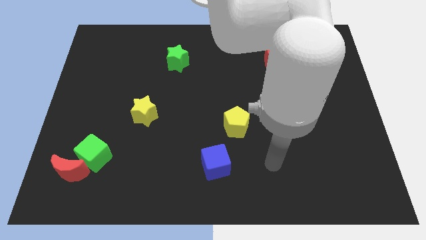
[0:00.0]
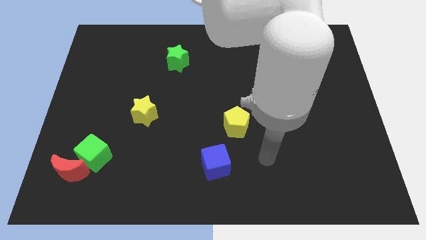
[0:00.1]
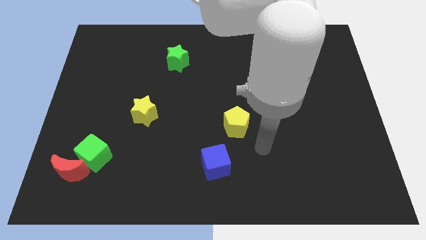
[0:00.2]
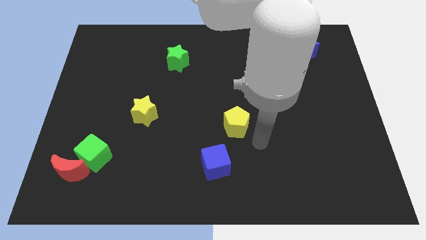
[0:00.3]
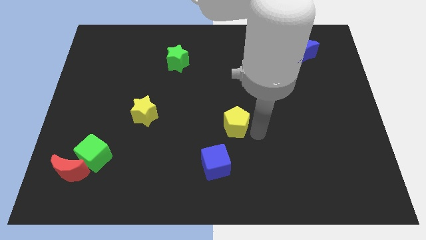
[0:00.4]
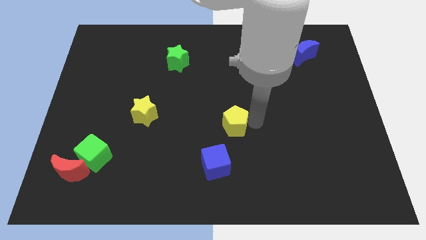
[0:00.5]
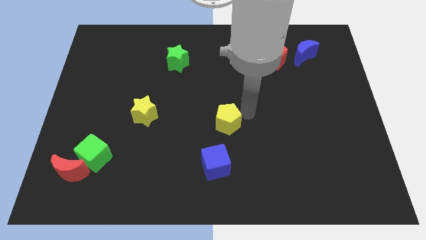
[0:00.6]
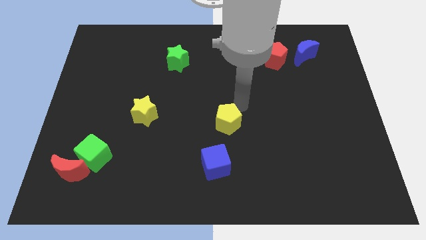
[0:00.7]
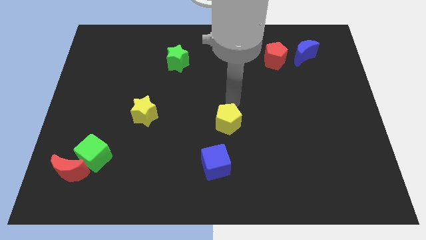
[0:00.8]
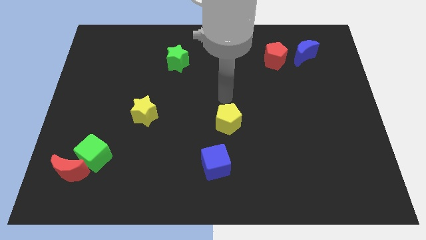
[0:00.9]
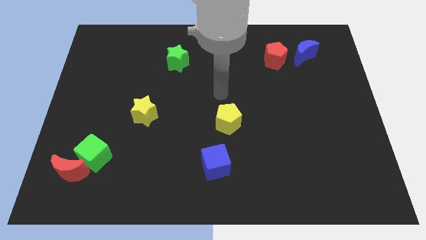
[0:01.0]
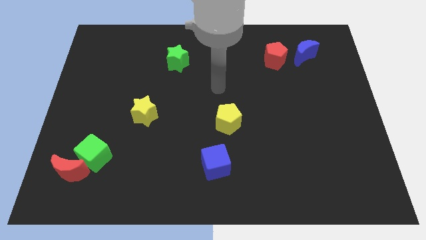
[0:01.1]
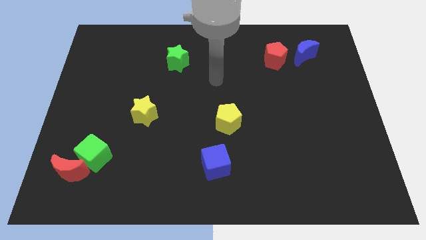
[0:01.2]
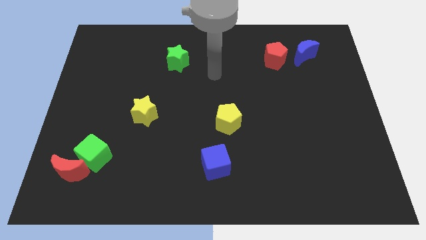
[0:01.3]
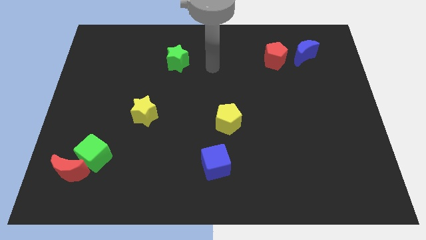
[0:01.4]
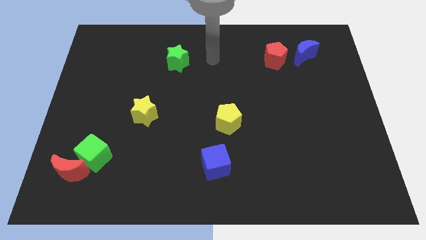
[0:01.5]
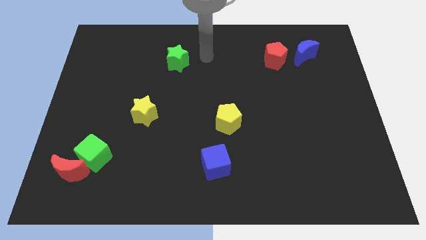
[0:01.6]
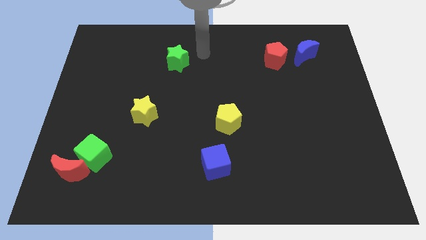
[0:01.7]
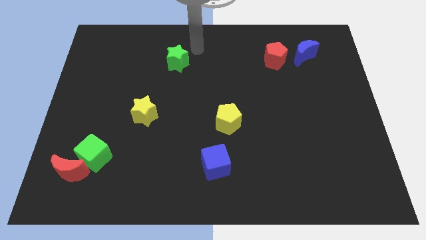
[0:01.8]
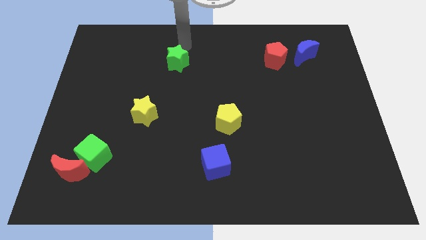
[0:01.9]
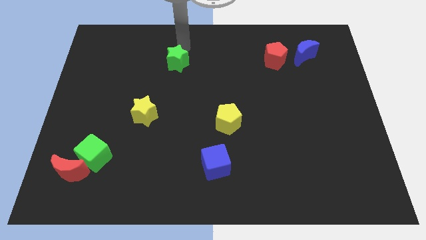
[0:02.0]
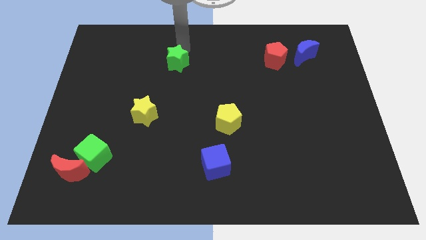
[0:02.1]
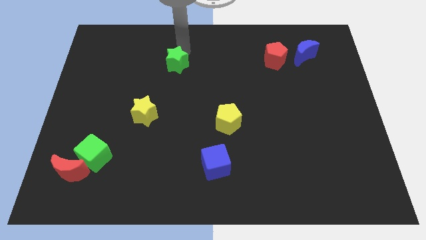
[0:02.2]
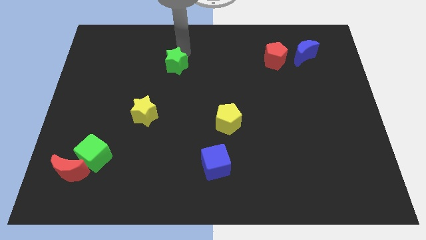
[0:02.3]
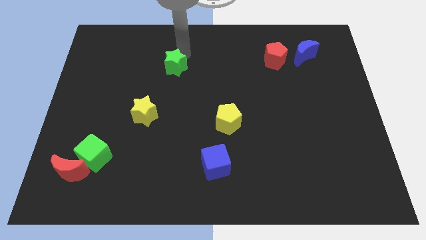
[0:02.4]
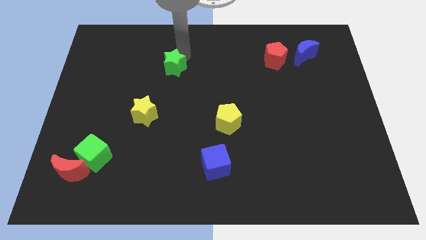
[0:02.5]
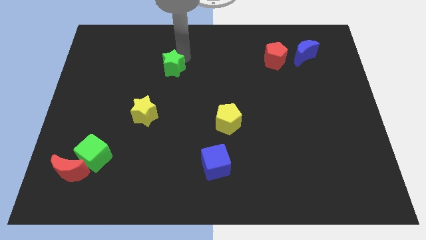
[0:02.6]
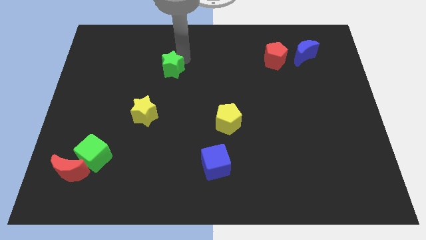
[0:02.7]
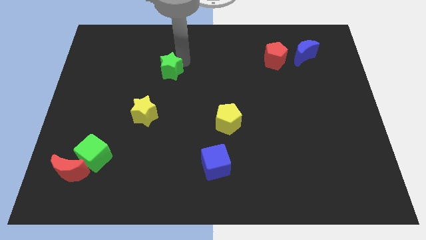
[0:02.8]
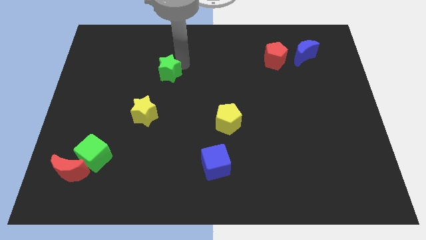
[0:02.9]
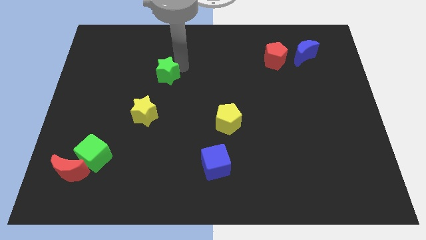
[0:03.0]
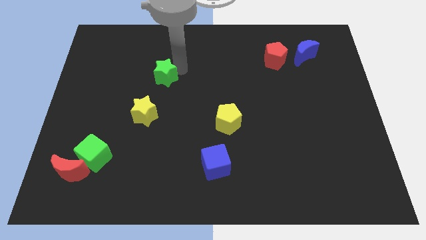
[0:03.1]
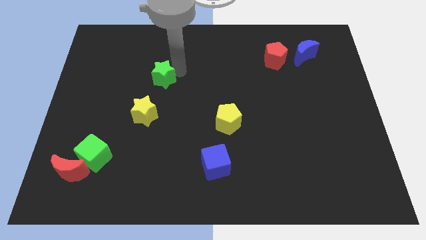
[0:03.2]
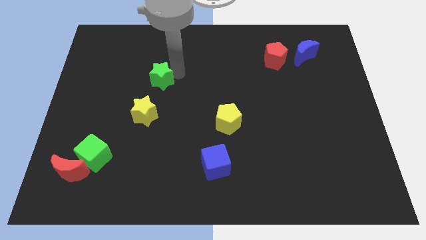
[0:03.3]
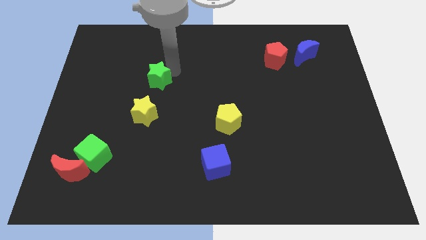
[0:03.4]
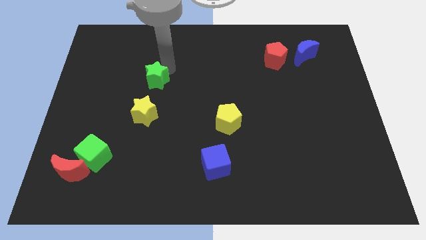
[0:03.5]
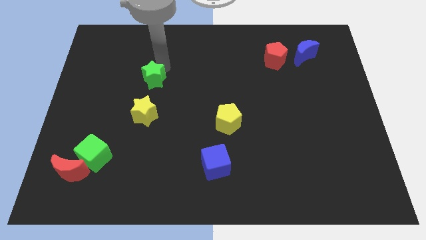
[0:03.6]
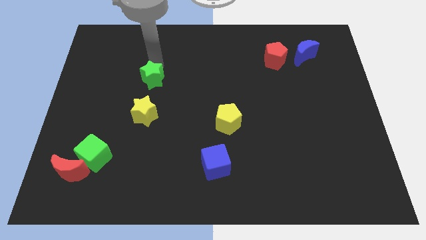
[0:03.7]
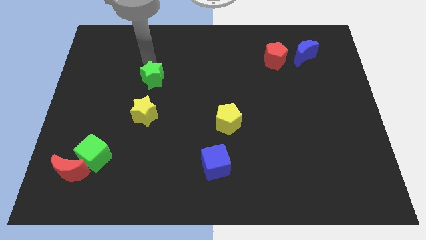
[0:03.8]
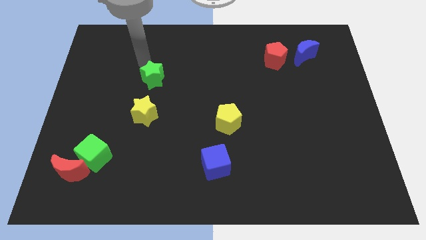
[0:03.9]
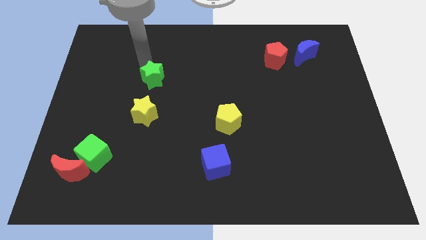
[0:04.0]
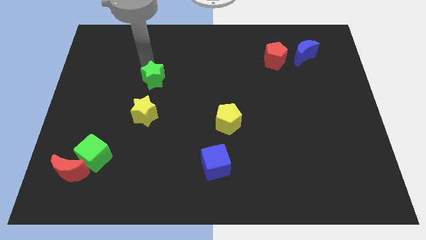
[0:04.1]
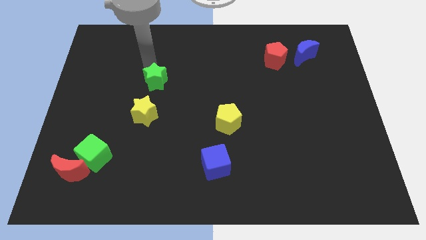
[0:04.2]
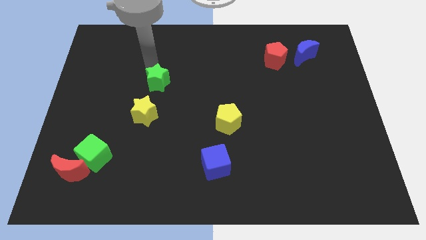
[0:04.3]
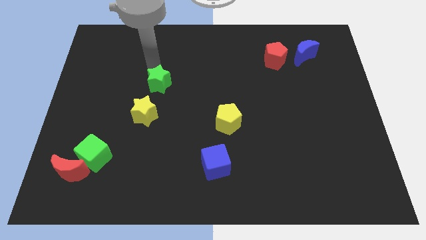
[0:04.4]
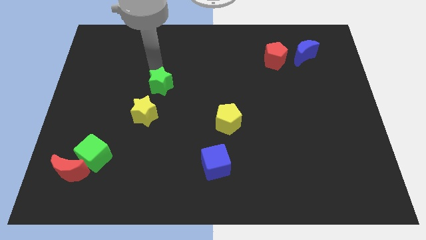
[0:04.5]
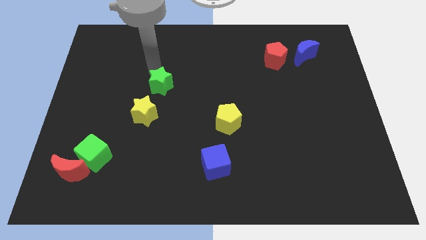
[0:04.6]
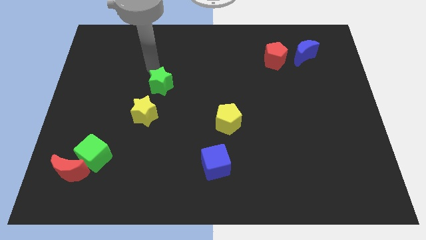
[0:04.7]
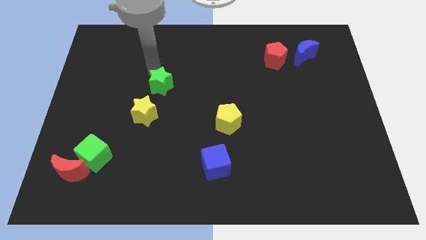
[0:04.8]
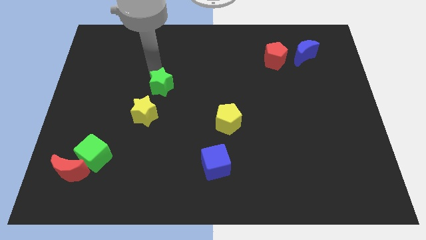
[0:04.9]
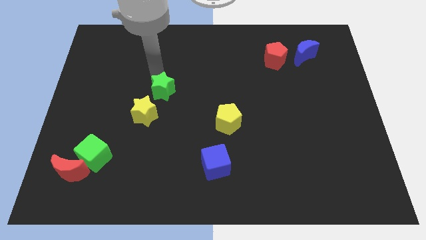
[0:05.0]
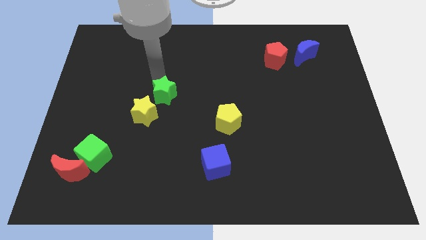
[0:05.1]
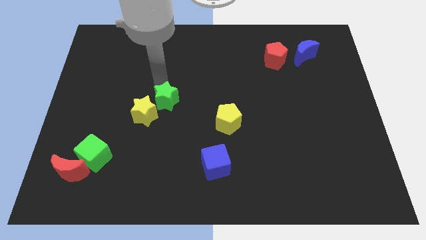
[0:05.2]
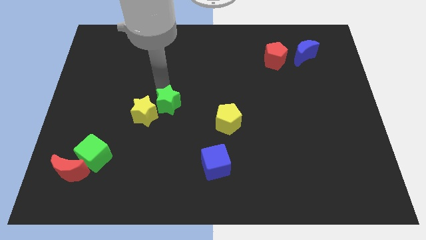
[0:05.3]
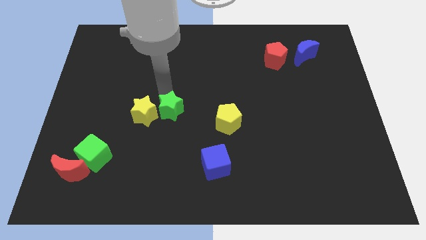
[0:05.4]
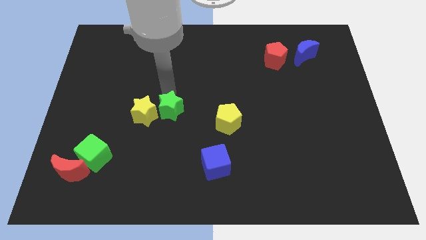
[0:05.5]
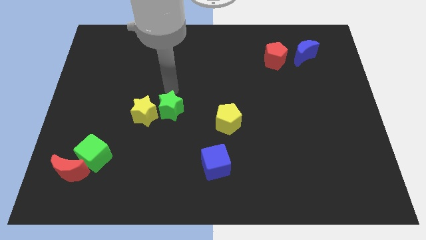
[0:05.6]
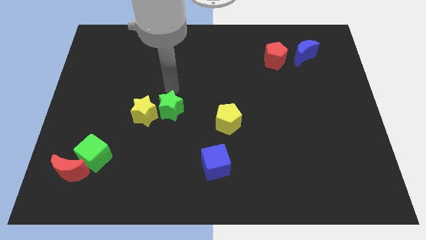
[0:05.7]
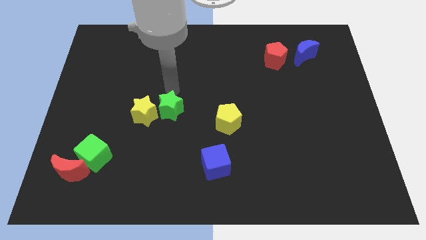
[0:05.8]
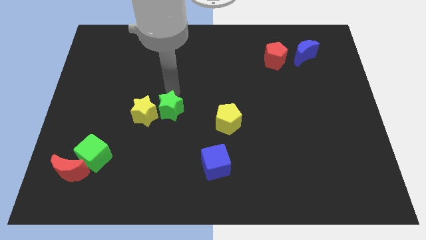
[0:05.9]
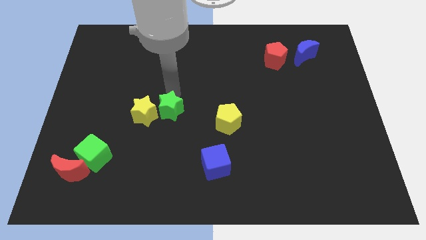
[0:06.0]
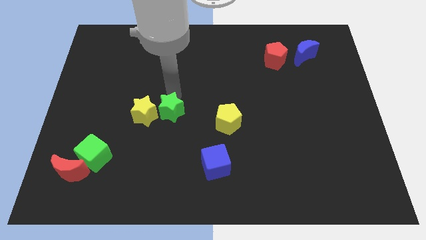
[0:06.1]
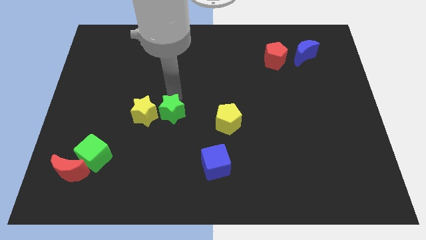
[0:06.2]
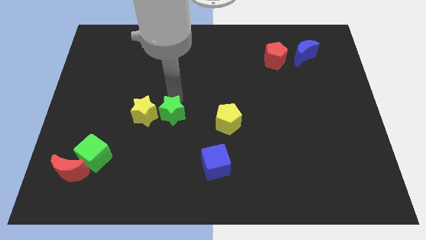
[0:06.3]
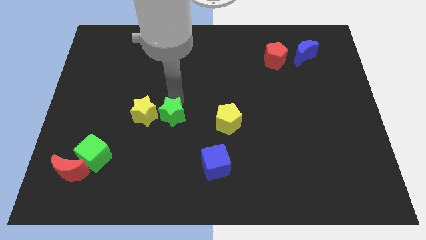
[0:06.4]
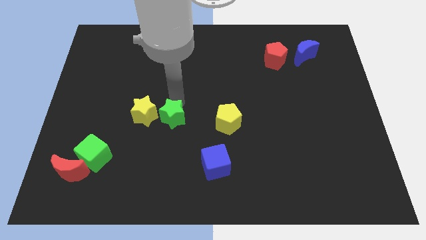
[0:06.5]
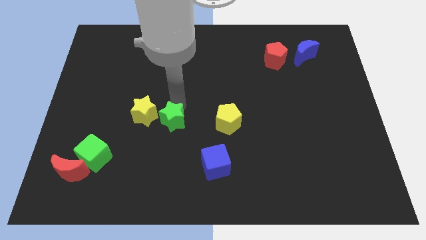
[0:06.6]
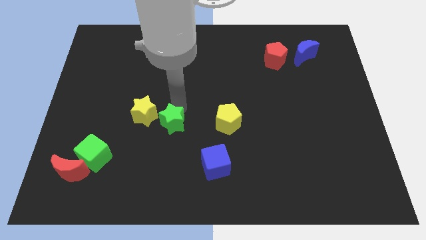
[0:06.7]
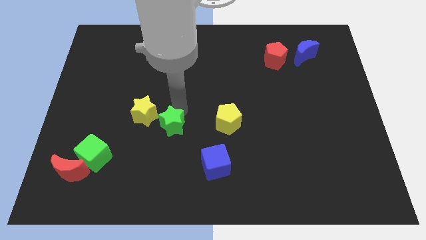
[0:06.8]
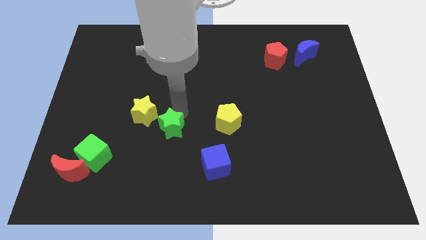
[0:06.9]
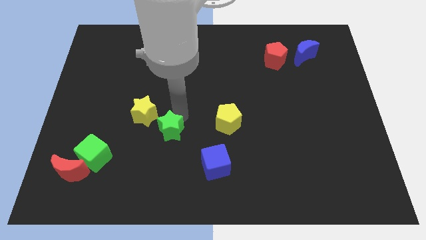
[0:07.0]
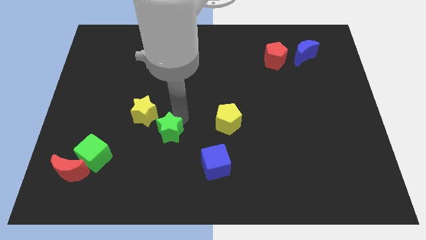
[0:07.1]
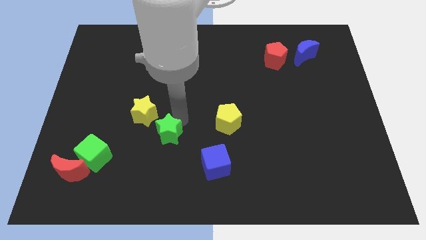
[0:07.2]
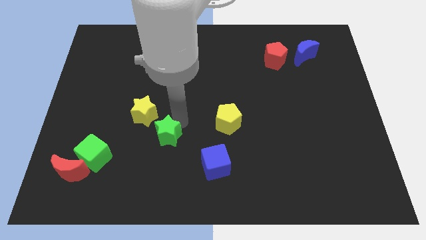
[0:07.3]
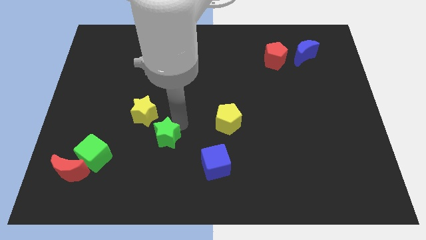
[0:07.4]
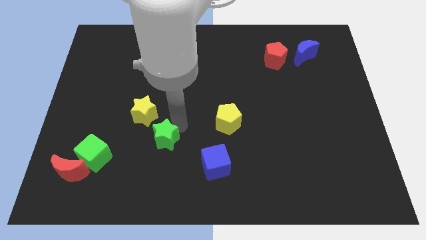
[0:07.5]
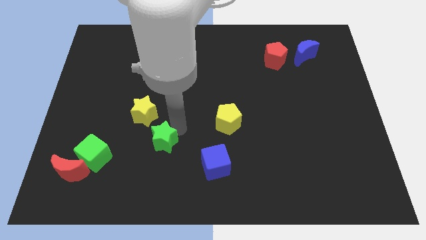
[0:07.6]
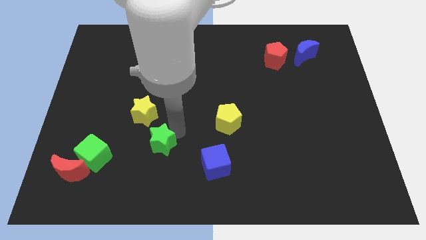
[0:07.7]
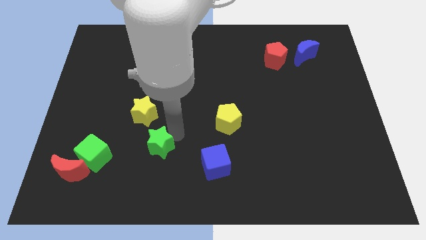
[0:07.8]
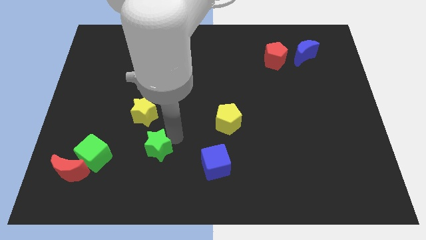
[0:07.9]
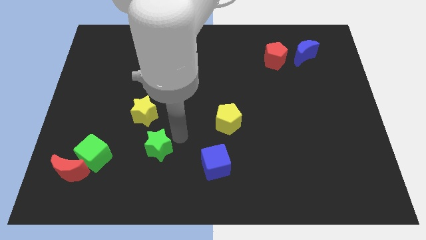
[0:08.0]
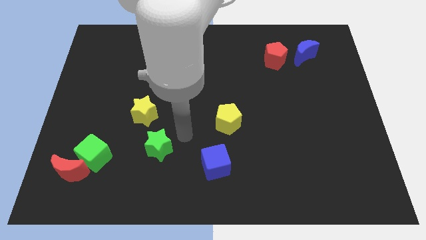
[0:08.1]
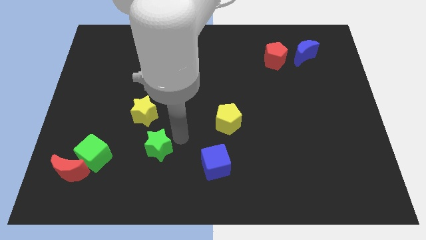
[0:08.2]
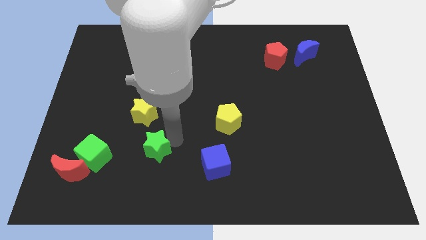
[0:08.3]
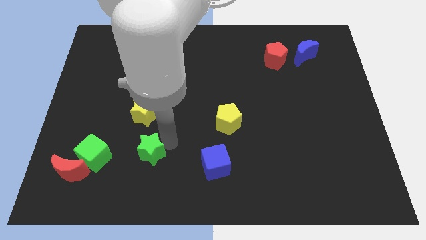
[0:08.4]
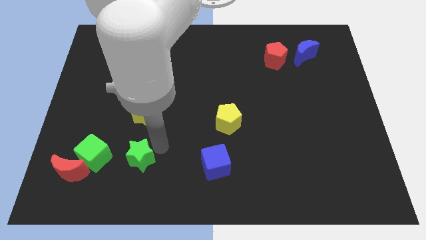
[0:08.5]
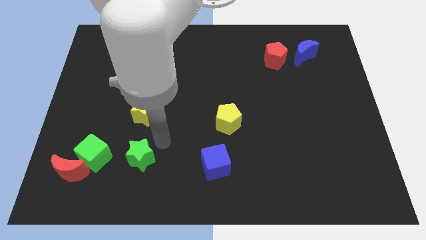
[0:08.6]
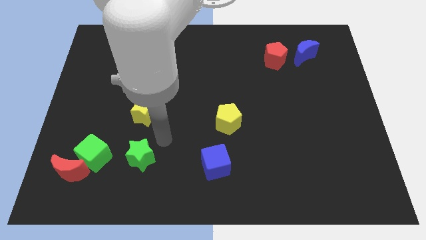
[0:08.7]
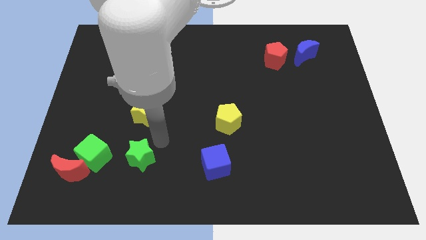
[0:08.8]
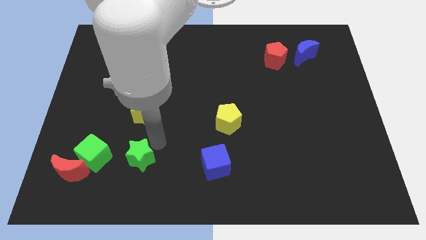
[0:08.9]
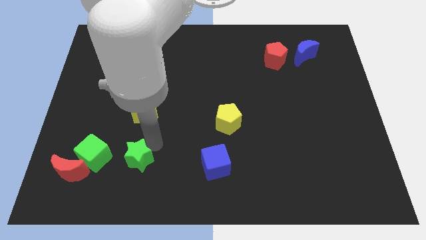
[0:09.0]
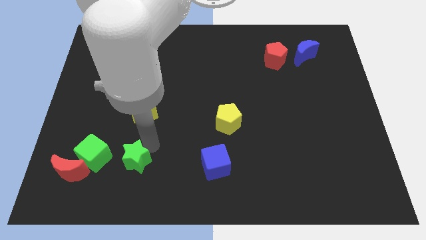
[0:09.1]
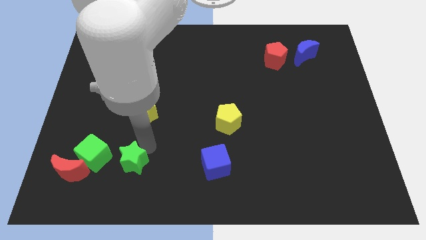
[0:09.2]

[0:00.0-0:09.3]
put the green star to the bottom right of the green cube
